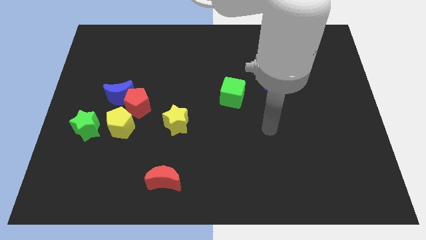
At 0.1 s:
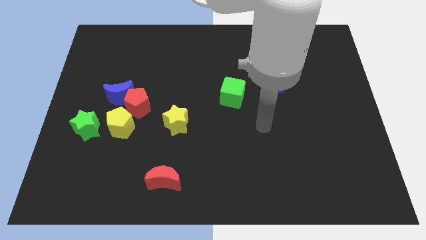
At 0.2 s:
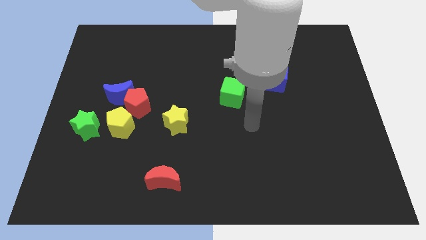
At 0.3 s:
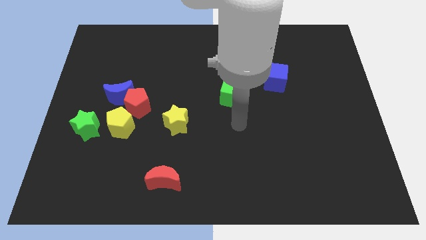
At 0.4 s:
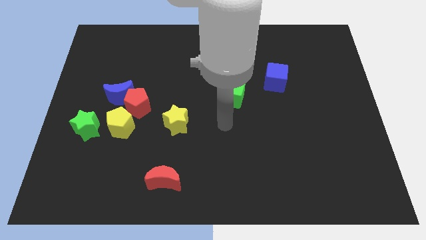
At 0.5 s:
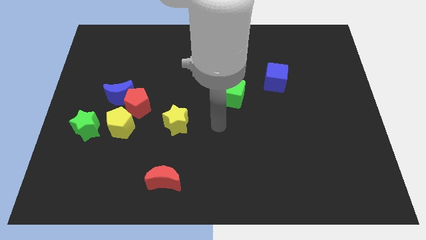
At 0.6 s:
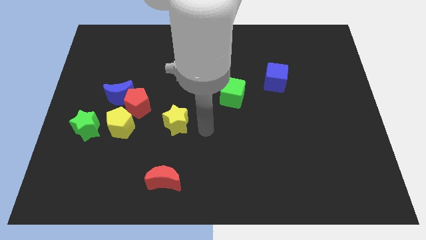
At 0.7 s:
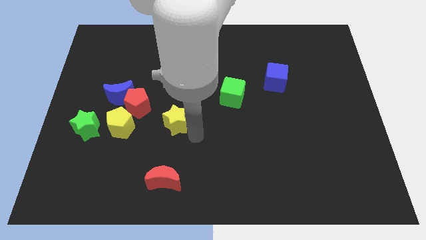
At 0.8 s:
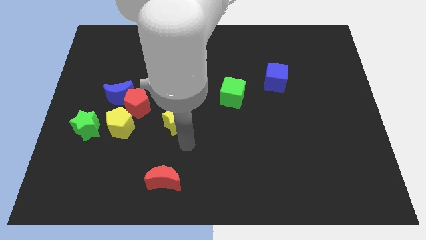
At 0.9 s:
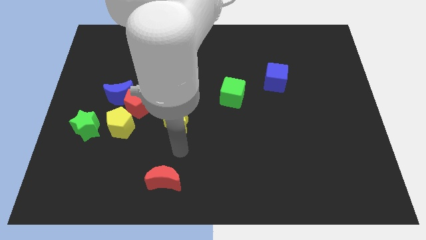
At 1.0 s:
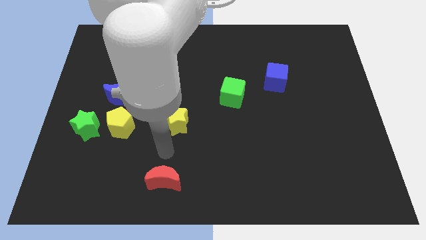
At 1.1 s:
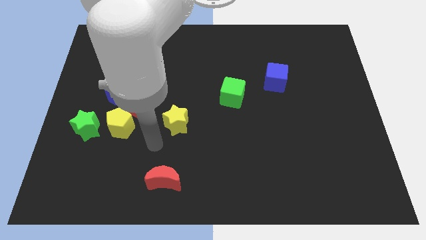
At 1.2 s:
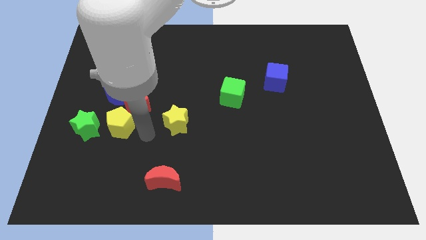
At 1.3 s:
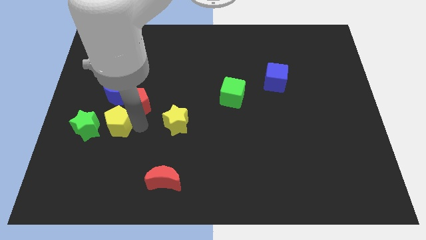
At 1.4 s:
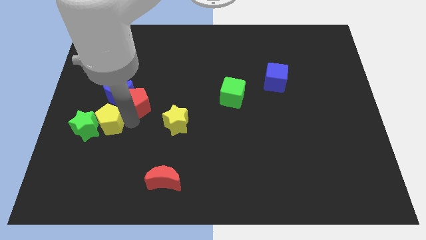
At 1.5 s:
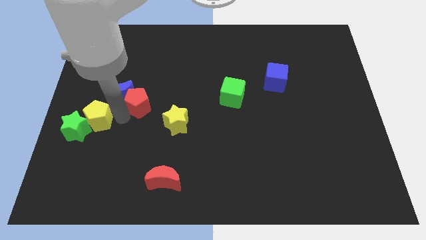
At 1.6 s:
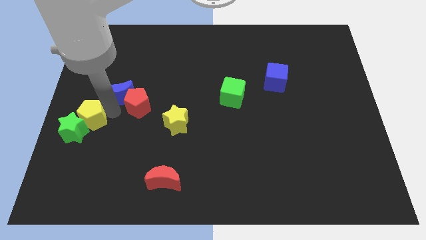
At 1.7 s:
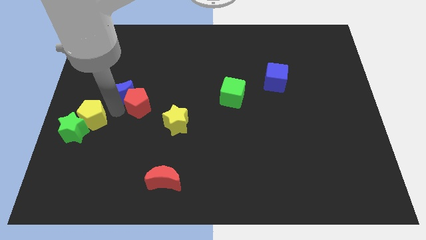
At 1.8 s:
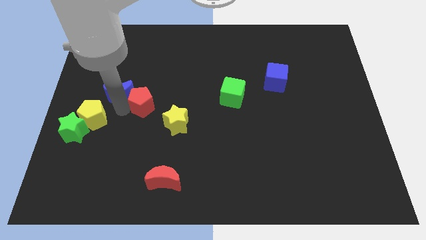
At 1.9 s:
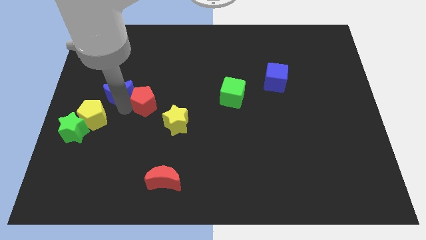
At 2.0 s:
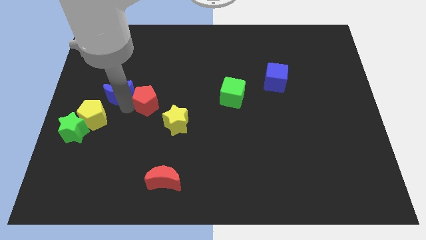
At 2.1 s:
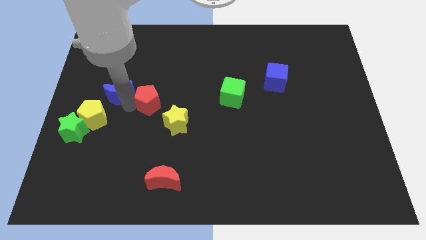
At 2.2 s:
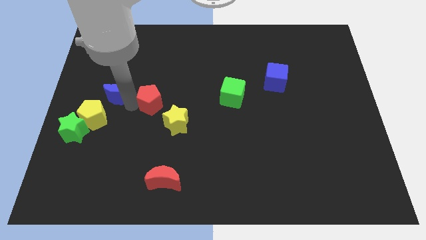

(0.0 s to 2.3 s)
move the red pentagon away from the blue moon and yellow pentagon

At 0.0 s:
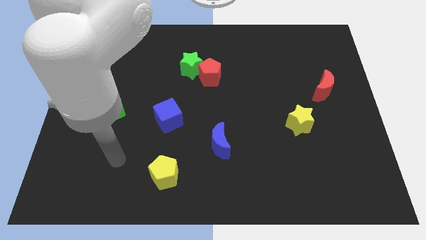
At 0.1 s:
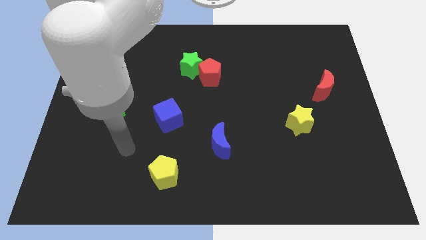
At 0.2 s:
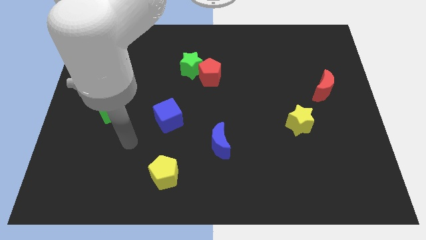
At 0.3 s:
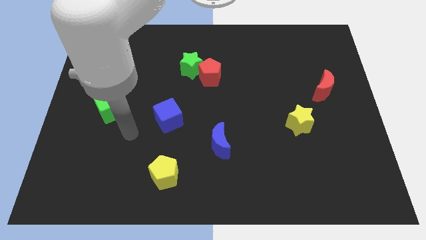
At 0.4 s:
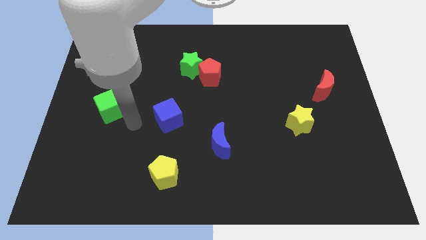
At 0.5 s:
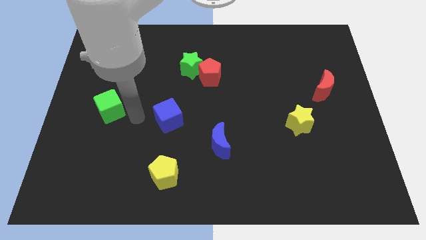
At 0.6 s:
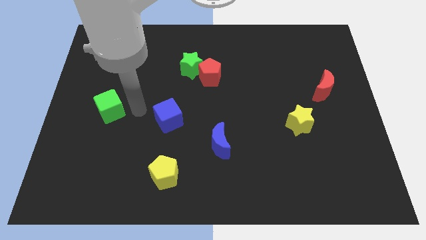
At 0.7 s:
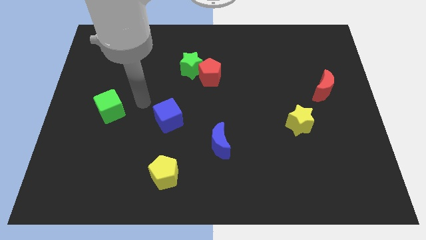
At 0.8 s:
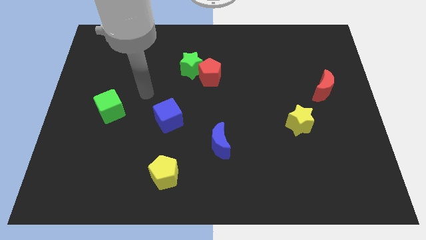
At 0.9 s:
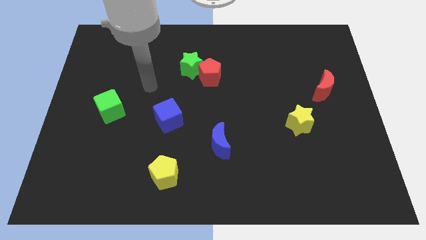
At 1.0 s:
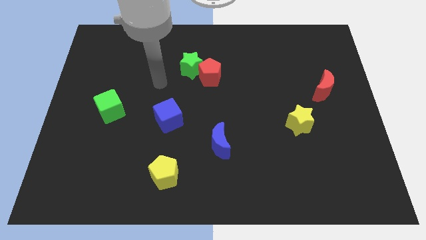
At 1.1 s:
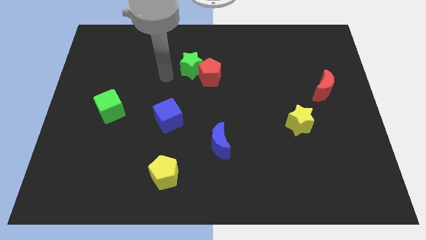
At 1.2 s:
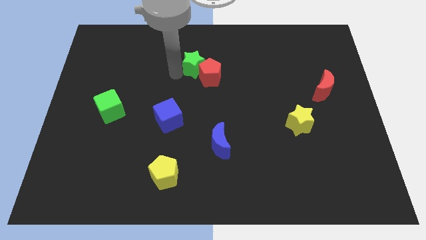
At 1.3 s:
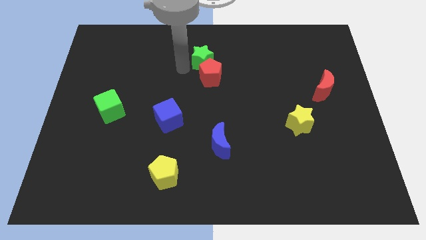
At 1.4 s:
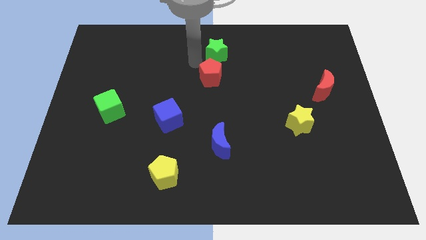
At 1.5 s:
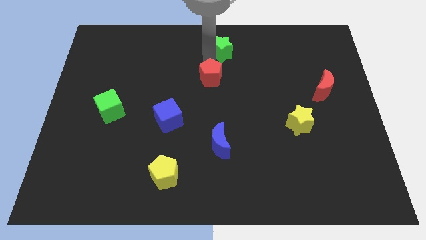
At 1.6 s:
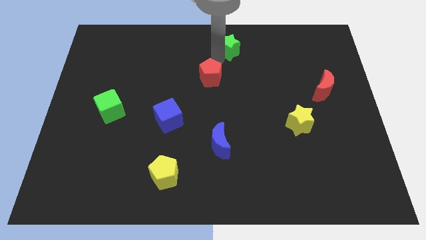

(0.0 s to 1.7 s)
move the red pentagon away from the green star

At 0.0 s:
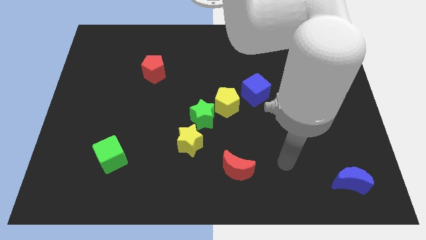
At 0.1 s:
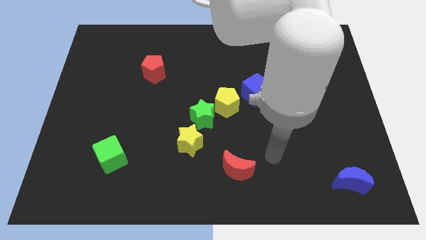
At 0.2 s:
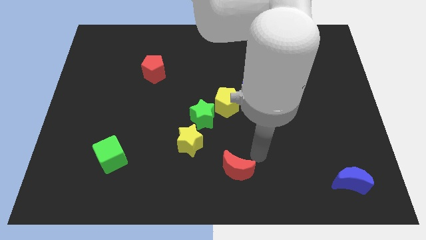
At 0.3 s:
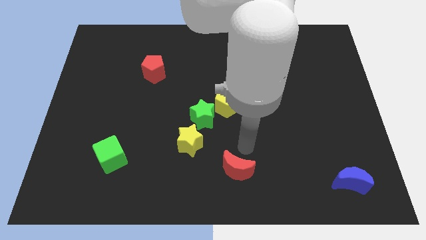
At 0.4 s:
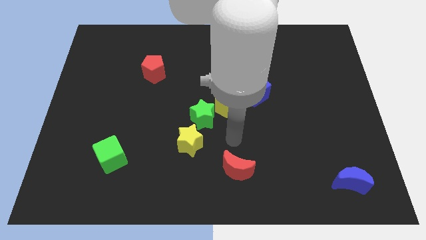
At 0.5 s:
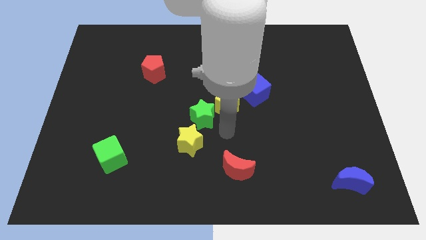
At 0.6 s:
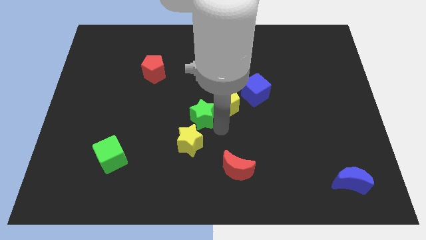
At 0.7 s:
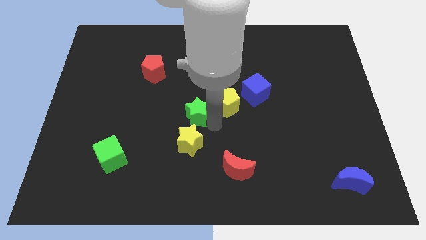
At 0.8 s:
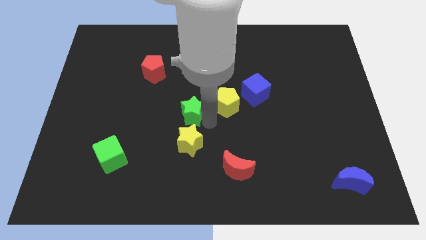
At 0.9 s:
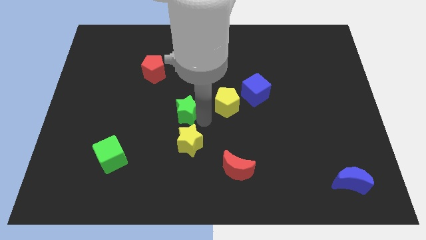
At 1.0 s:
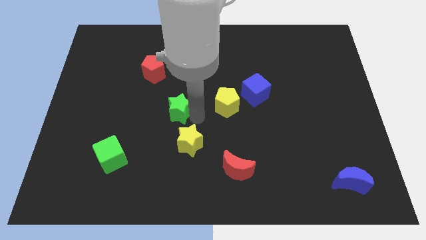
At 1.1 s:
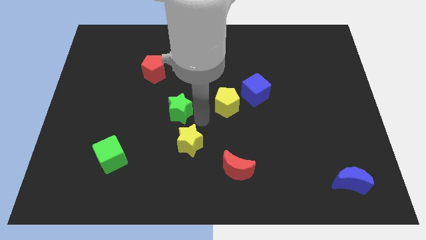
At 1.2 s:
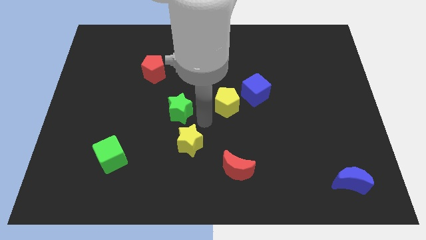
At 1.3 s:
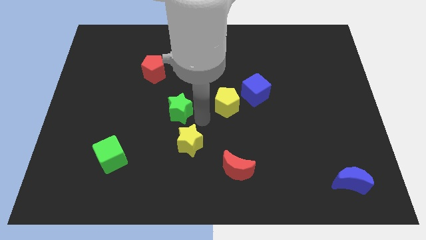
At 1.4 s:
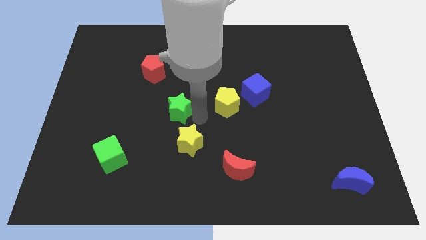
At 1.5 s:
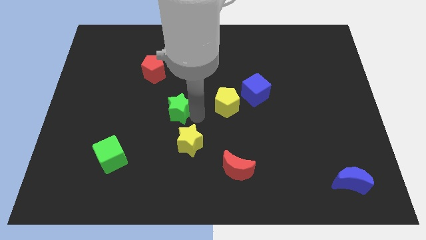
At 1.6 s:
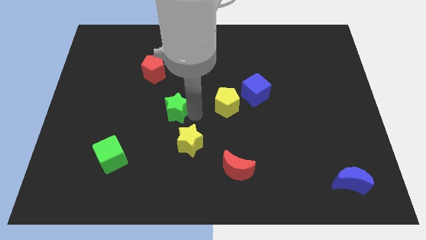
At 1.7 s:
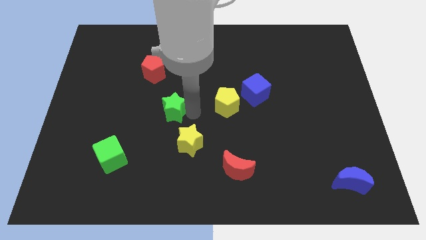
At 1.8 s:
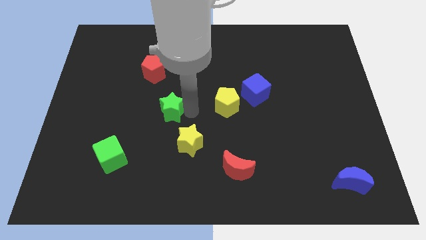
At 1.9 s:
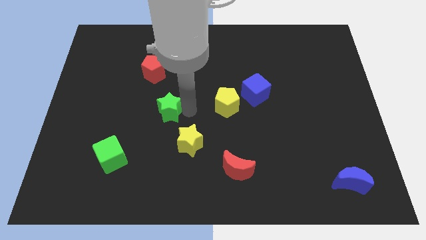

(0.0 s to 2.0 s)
separate the green star from the yellow pentagon and yellow star

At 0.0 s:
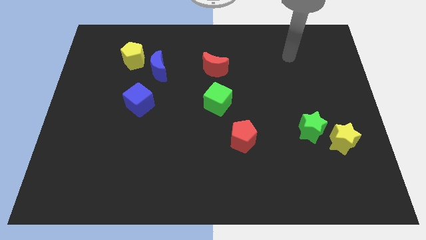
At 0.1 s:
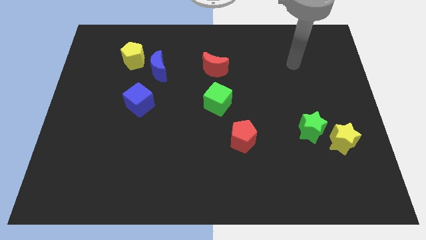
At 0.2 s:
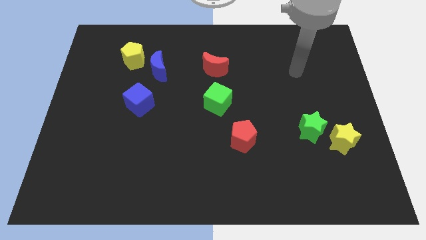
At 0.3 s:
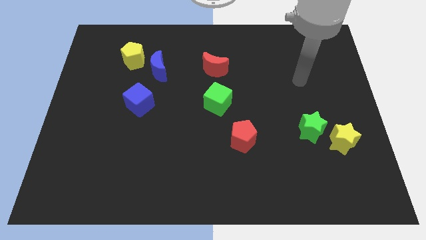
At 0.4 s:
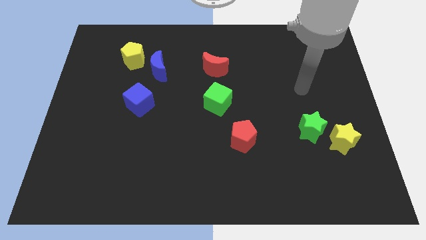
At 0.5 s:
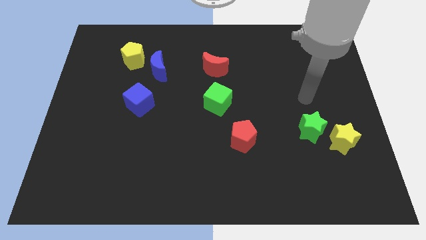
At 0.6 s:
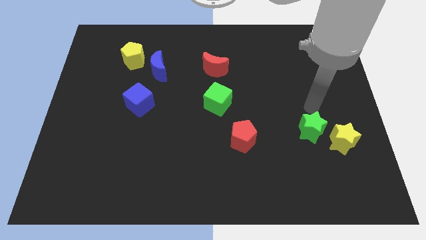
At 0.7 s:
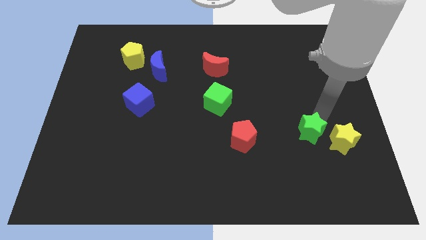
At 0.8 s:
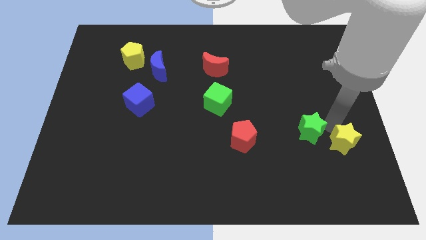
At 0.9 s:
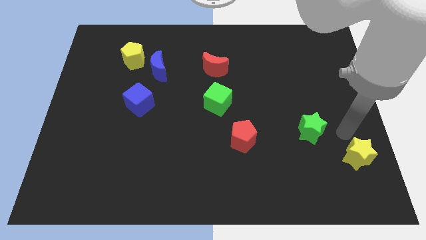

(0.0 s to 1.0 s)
pull the green star apart from the yellow star

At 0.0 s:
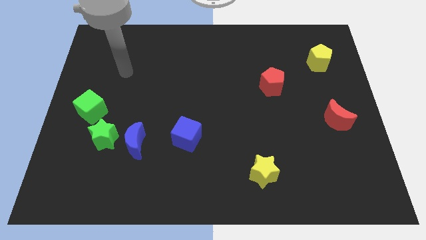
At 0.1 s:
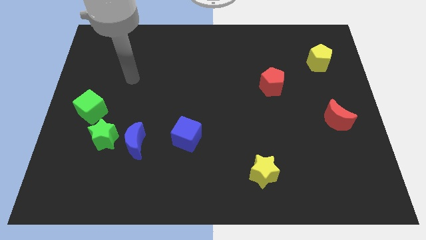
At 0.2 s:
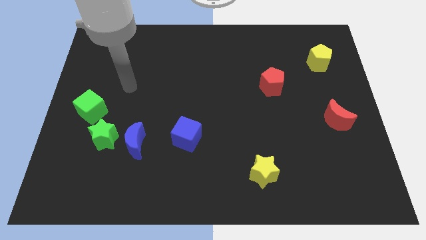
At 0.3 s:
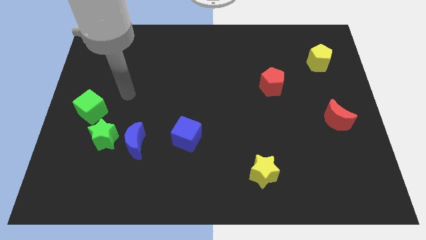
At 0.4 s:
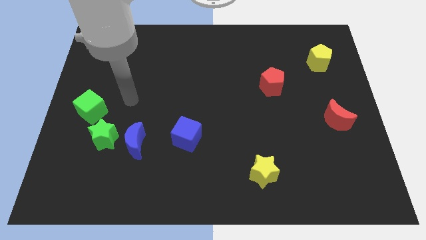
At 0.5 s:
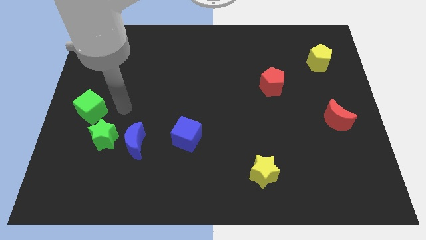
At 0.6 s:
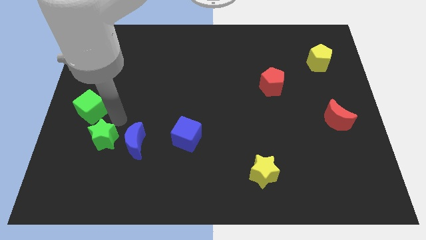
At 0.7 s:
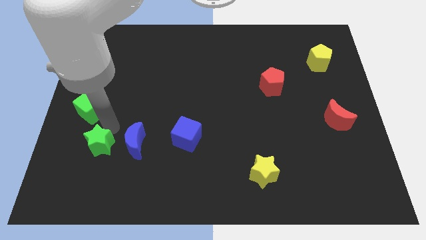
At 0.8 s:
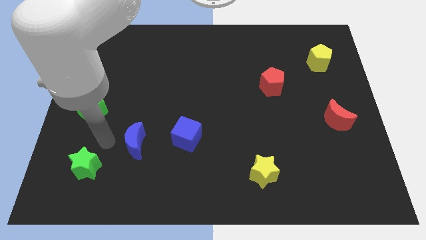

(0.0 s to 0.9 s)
pull the blue moon apart from the green star

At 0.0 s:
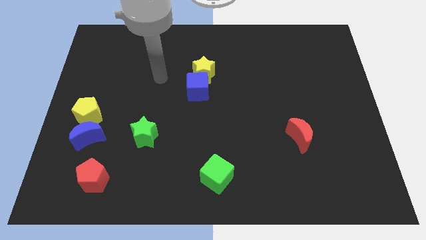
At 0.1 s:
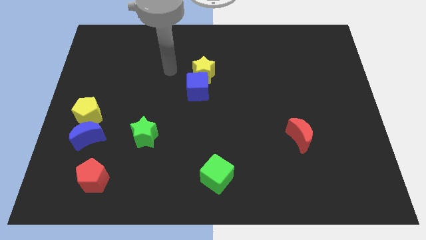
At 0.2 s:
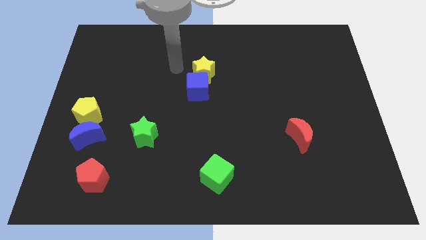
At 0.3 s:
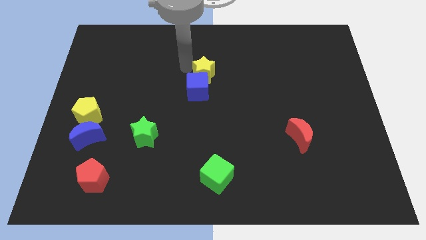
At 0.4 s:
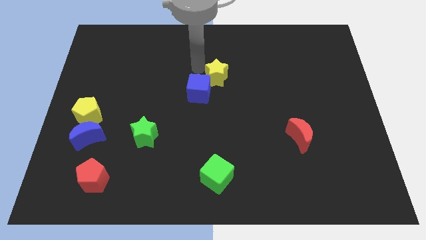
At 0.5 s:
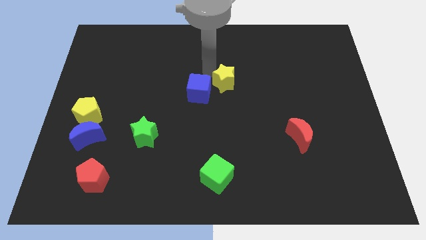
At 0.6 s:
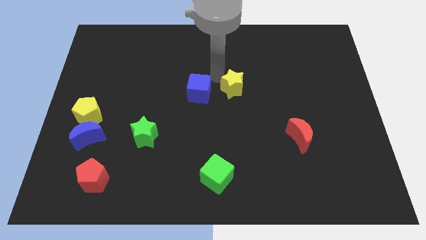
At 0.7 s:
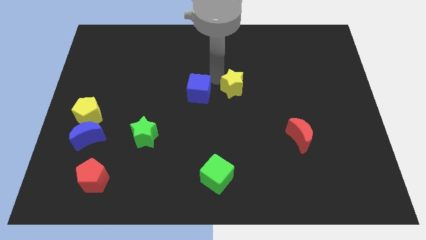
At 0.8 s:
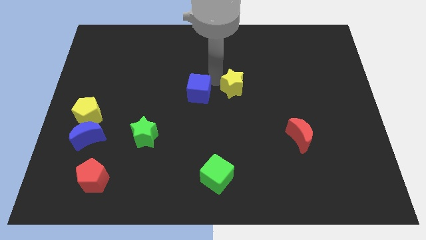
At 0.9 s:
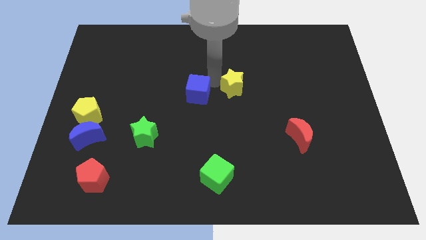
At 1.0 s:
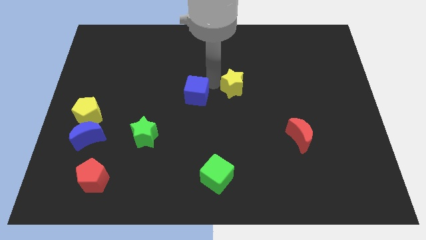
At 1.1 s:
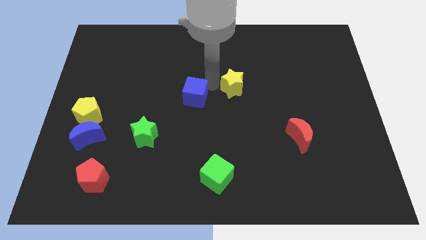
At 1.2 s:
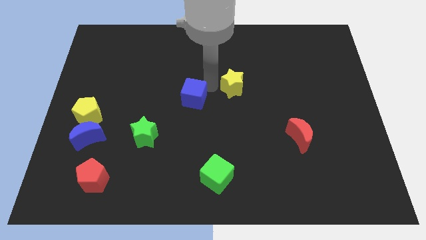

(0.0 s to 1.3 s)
separate the blue cube from the yellow star

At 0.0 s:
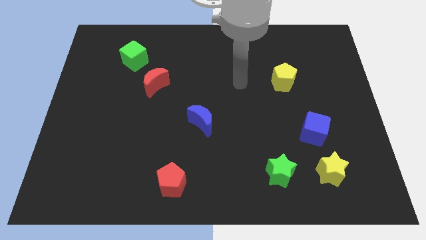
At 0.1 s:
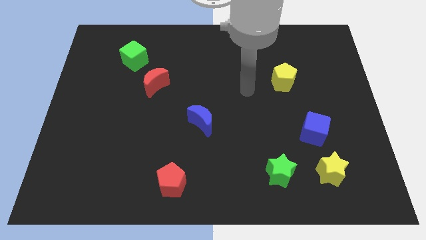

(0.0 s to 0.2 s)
move the blue cube away from the yellow star

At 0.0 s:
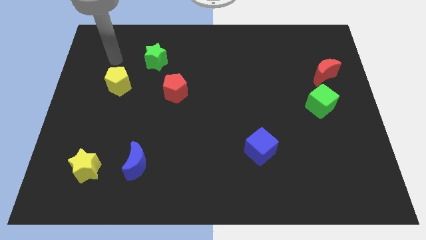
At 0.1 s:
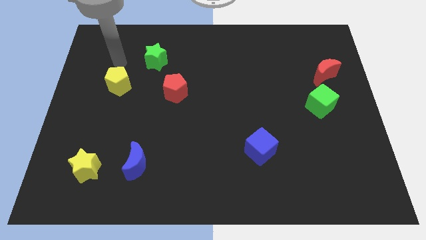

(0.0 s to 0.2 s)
pull the red moon apart from the green cube
